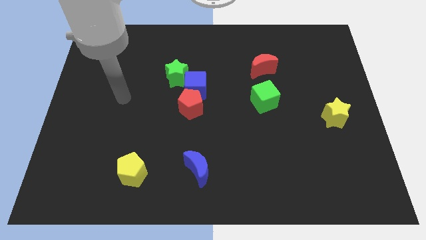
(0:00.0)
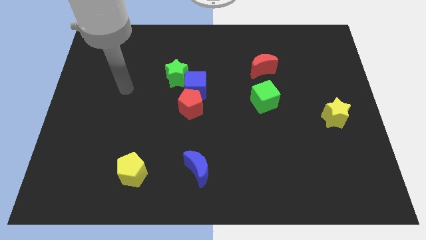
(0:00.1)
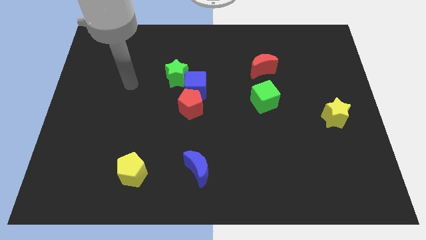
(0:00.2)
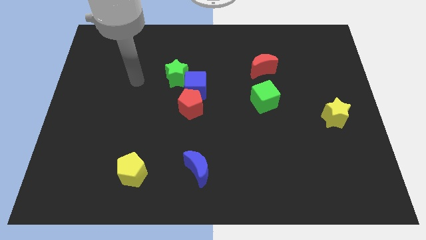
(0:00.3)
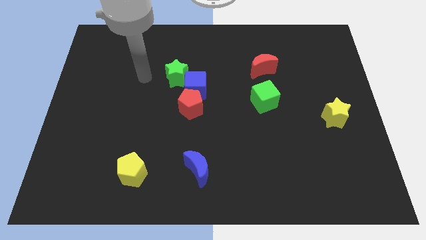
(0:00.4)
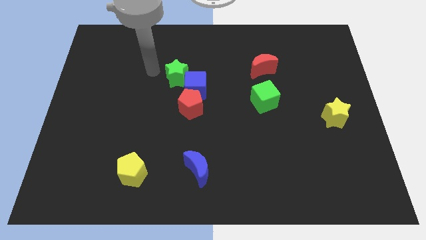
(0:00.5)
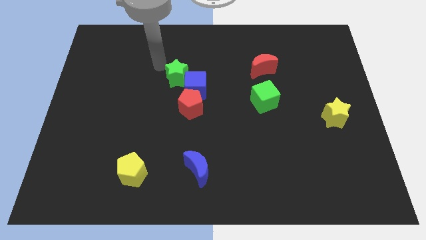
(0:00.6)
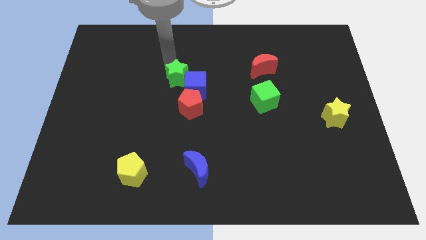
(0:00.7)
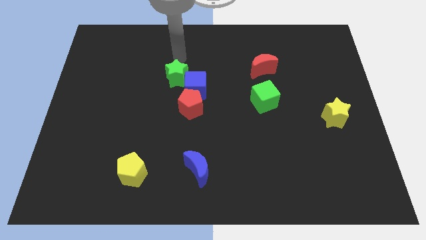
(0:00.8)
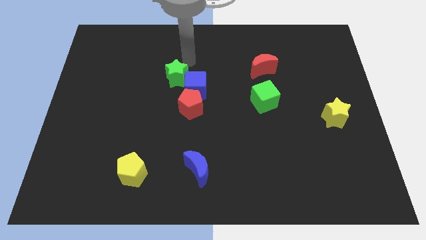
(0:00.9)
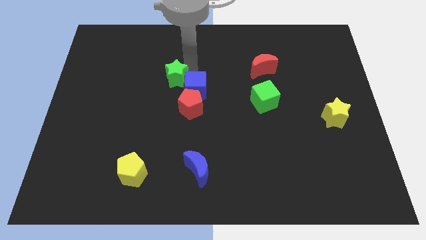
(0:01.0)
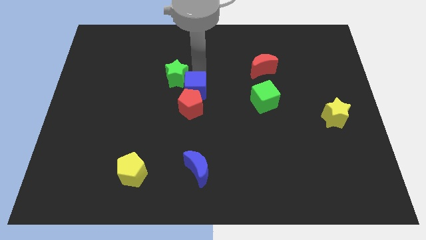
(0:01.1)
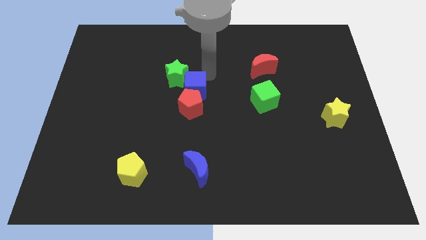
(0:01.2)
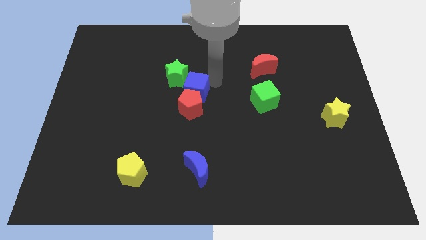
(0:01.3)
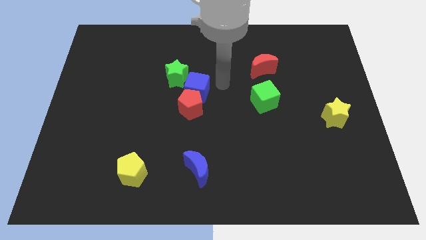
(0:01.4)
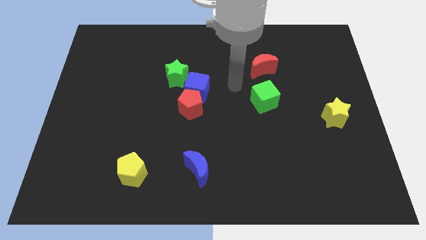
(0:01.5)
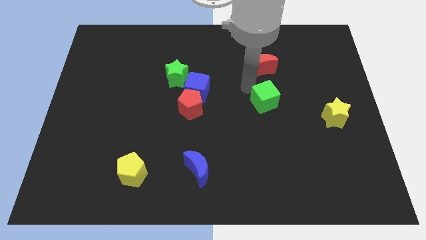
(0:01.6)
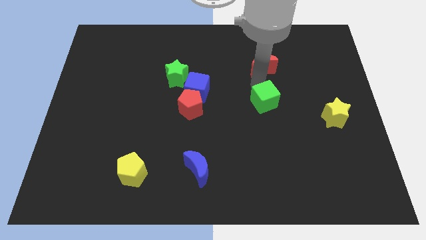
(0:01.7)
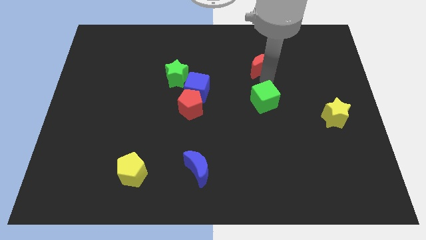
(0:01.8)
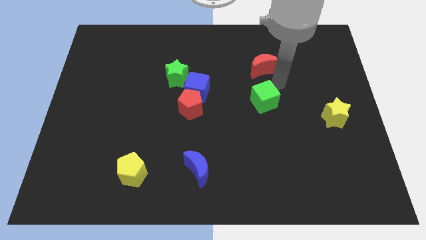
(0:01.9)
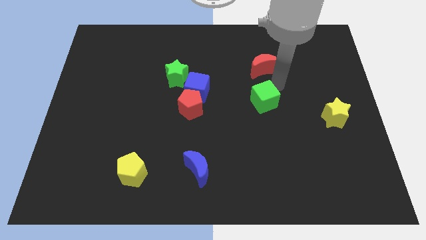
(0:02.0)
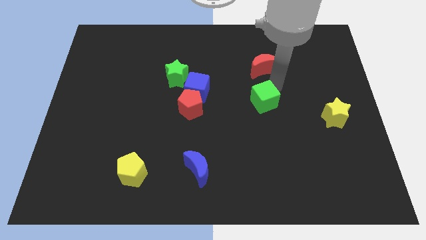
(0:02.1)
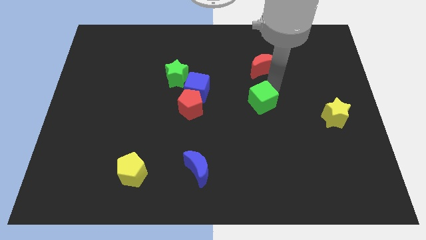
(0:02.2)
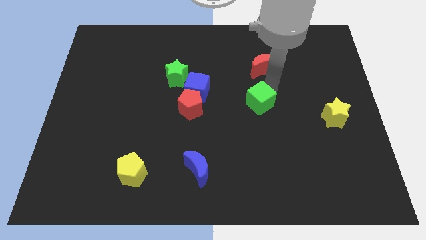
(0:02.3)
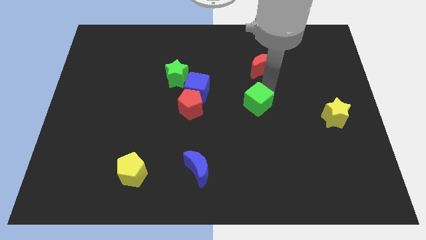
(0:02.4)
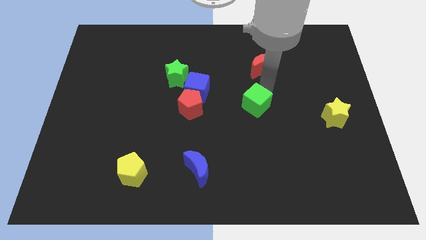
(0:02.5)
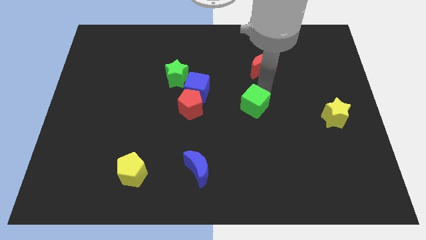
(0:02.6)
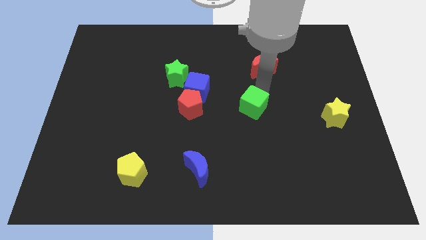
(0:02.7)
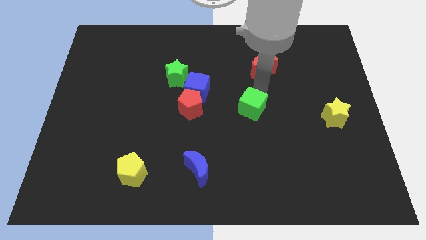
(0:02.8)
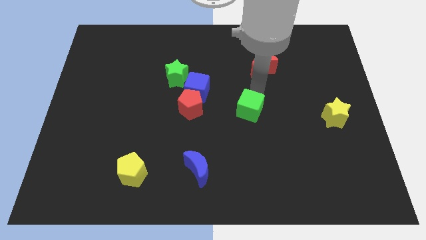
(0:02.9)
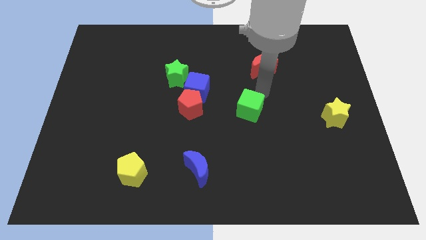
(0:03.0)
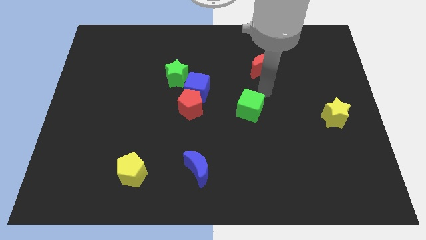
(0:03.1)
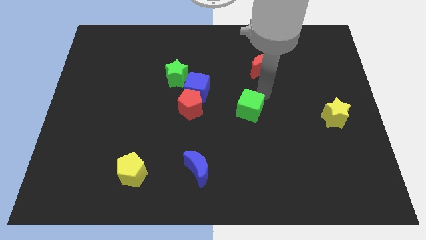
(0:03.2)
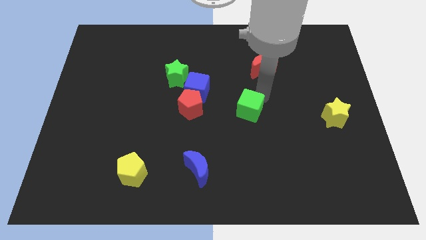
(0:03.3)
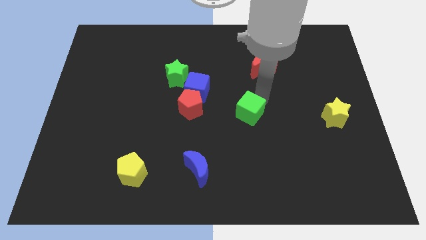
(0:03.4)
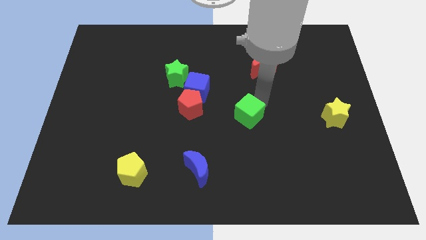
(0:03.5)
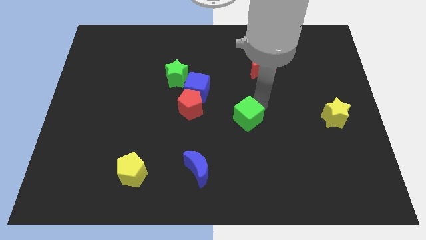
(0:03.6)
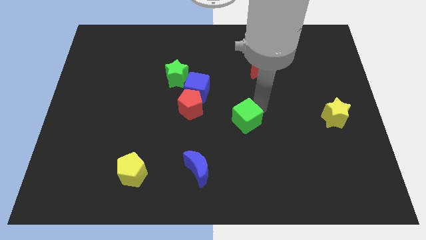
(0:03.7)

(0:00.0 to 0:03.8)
slide the green cube somewhat down and left

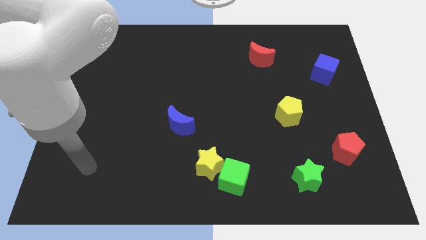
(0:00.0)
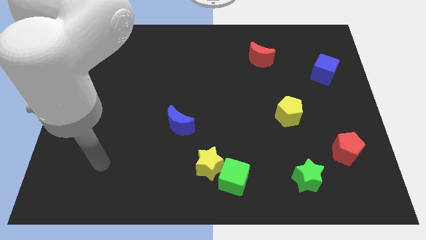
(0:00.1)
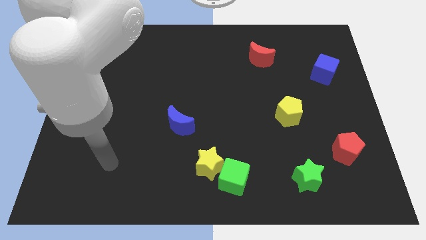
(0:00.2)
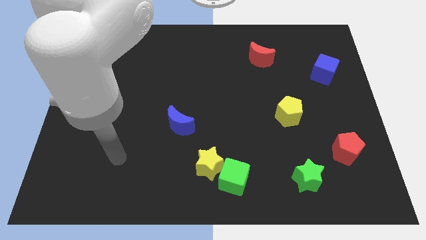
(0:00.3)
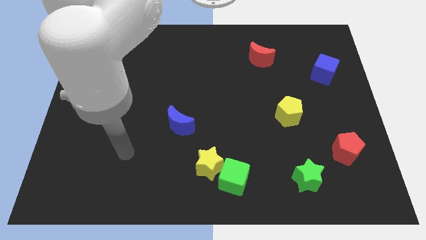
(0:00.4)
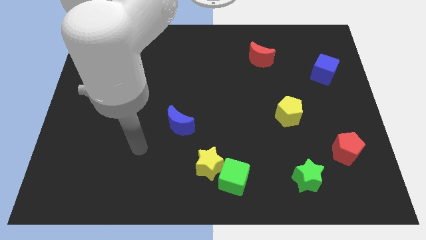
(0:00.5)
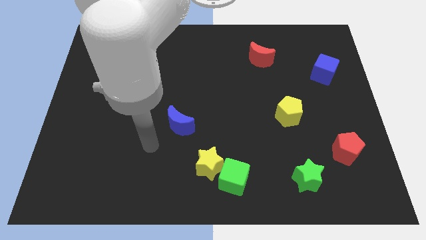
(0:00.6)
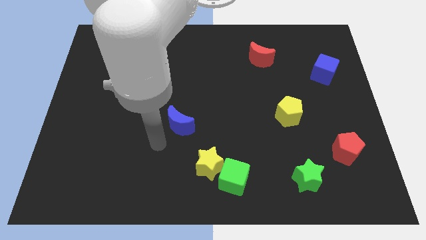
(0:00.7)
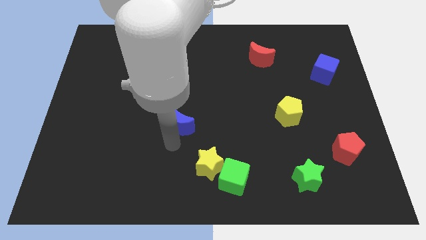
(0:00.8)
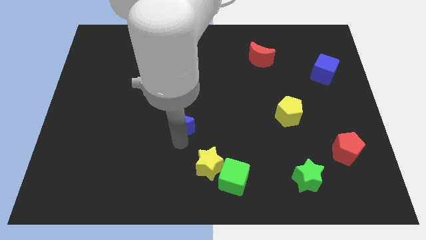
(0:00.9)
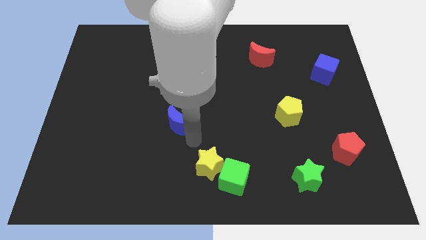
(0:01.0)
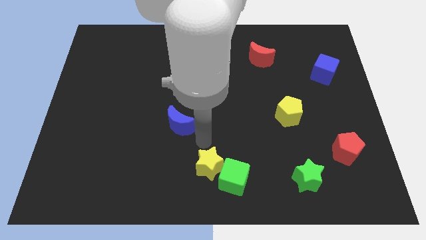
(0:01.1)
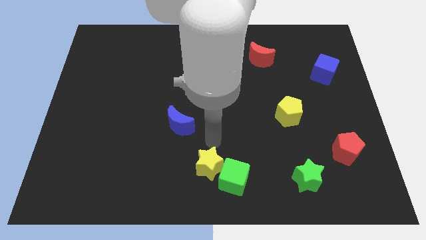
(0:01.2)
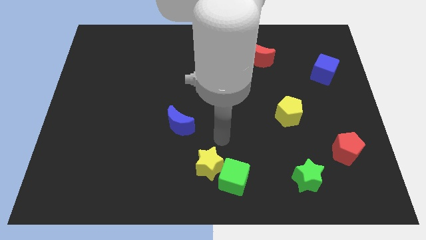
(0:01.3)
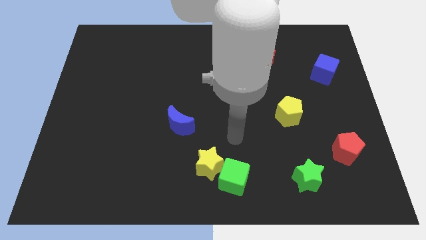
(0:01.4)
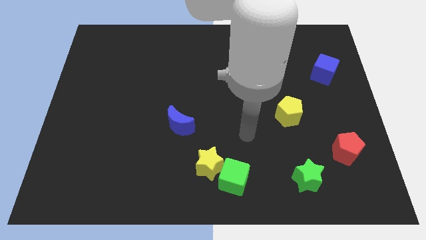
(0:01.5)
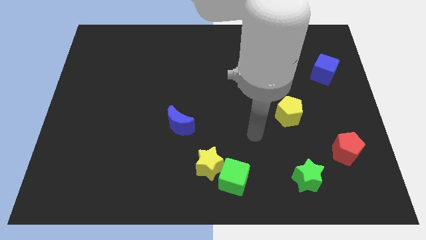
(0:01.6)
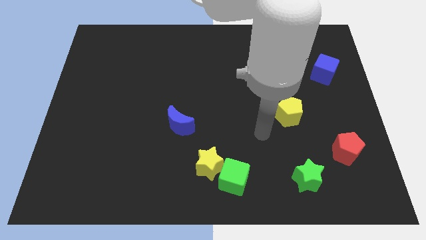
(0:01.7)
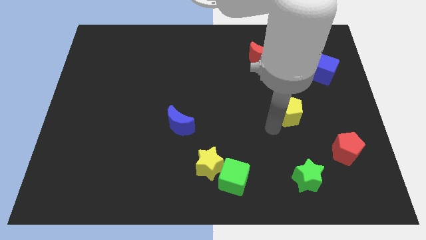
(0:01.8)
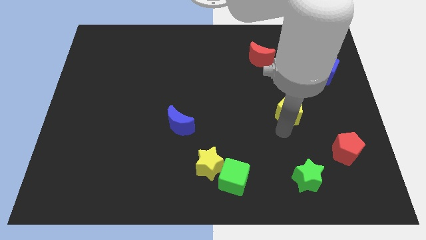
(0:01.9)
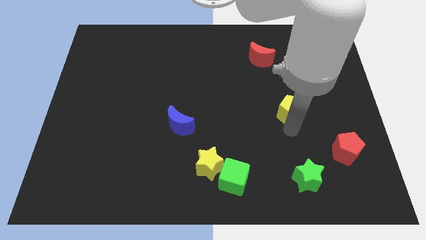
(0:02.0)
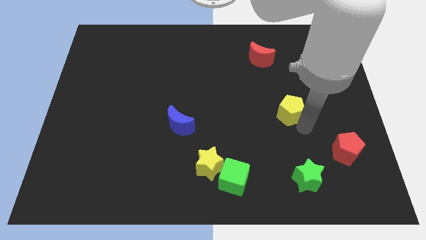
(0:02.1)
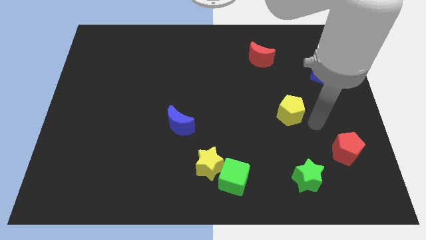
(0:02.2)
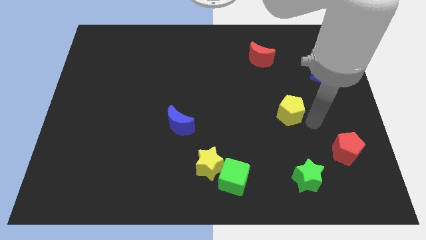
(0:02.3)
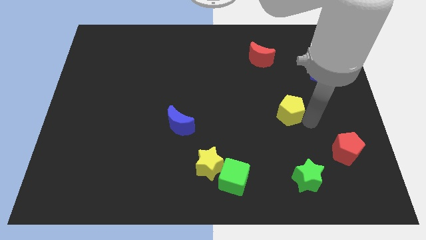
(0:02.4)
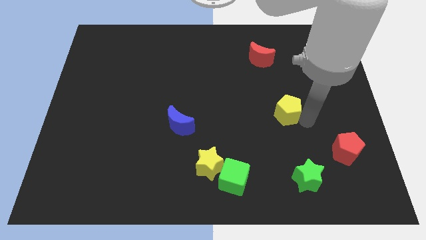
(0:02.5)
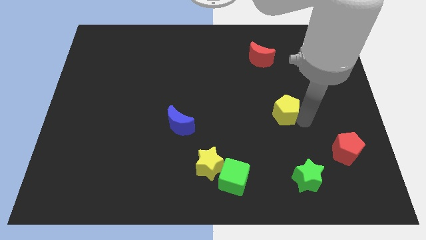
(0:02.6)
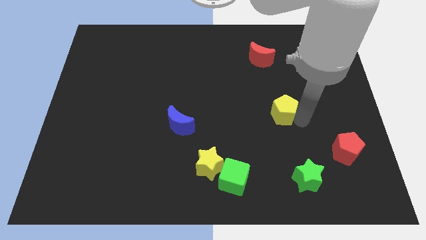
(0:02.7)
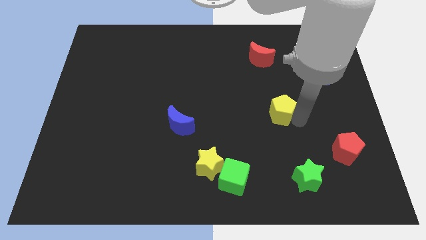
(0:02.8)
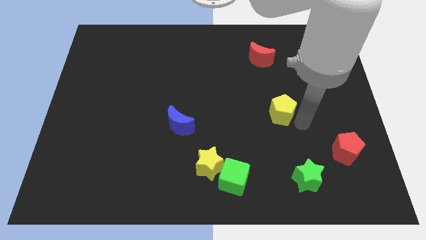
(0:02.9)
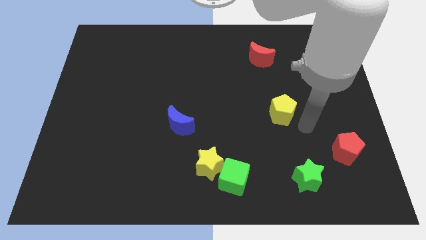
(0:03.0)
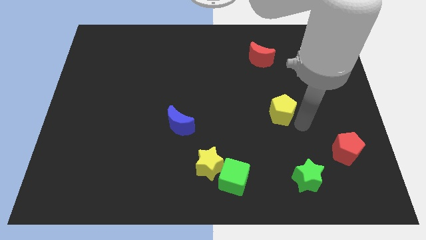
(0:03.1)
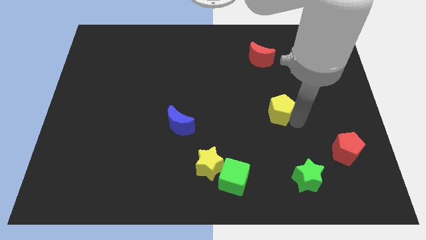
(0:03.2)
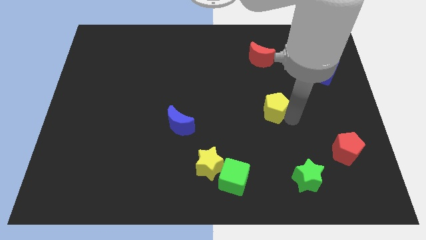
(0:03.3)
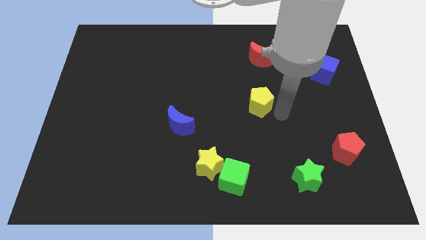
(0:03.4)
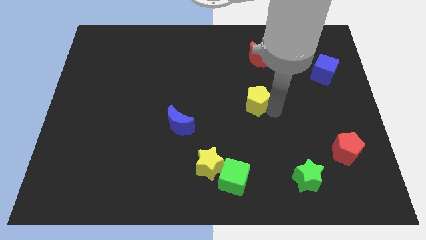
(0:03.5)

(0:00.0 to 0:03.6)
move the yellow pentagon upwards and left somewhat

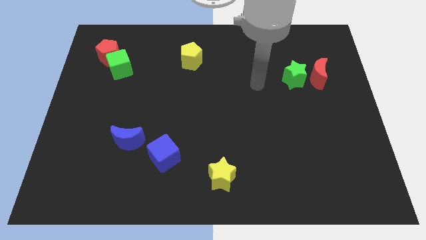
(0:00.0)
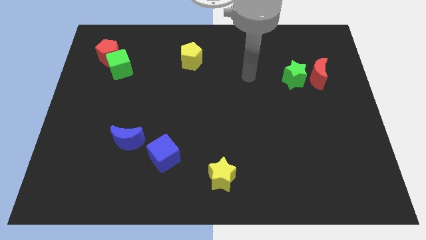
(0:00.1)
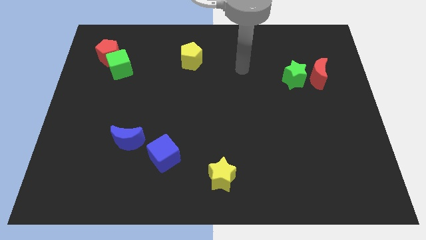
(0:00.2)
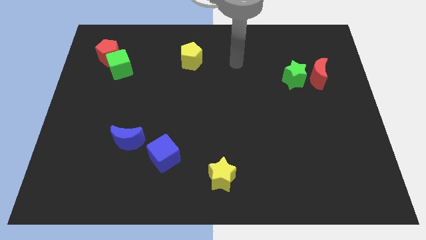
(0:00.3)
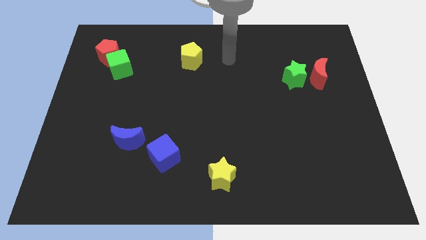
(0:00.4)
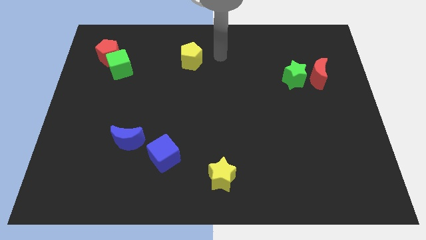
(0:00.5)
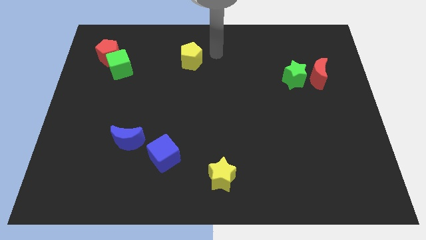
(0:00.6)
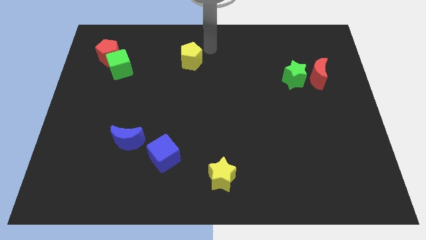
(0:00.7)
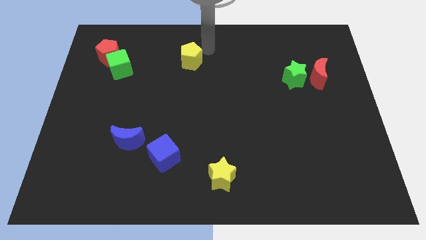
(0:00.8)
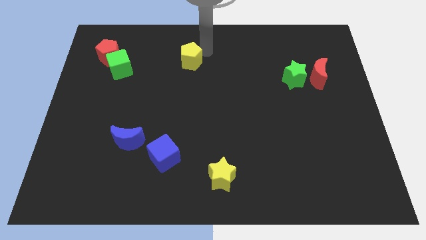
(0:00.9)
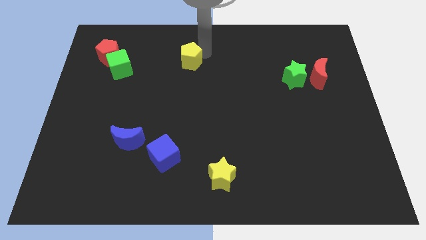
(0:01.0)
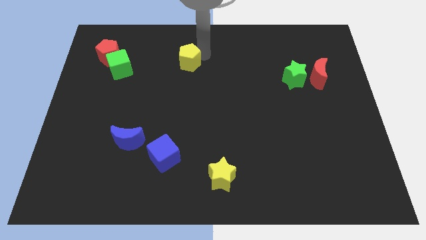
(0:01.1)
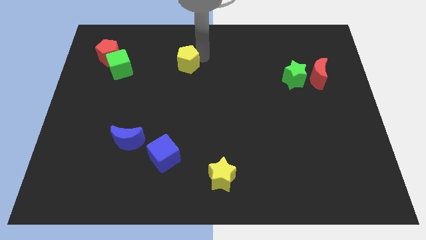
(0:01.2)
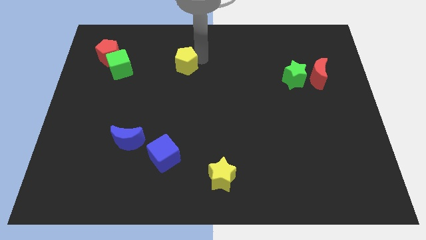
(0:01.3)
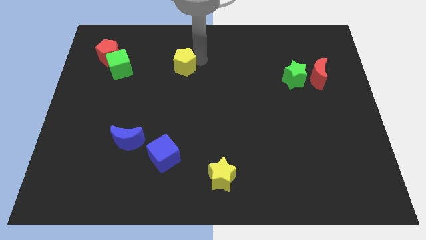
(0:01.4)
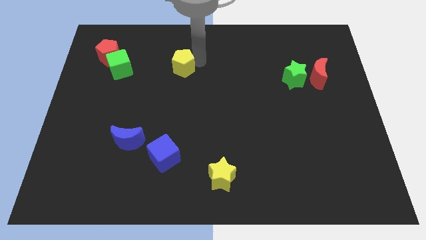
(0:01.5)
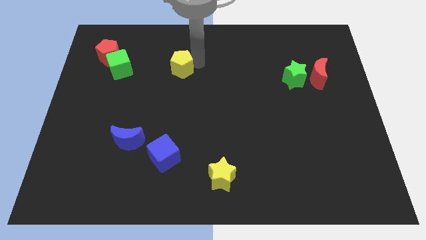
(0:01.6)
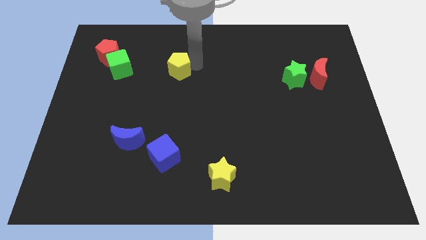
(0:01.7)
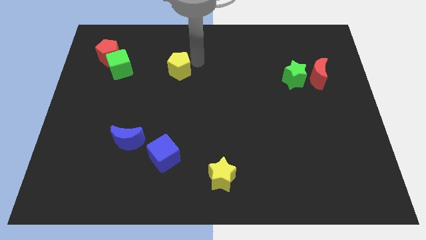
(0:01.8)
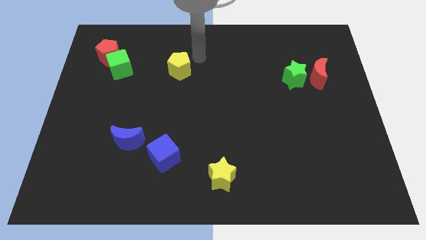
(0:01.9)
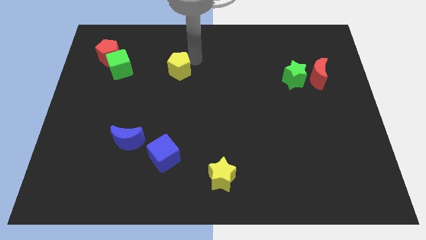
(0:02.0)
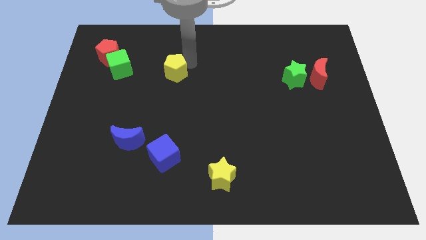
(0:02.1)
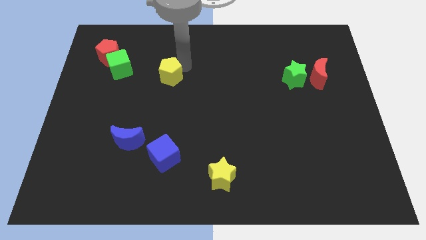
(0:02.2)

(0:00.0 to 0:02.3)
slightly push the yellow pentagon downwards and then to the left
